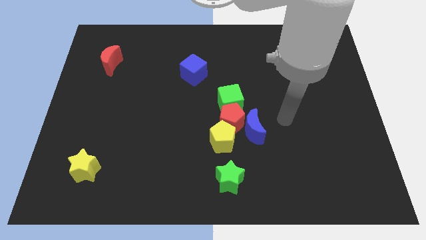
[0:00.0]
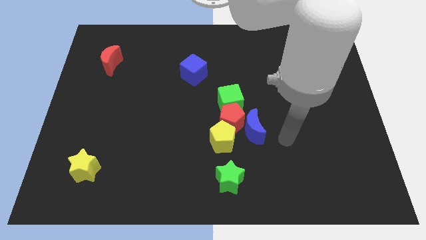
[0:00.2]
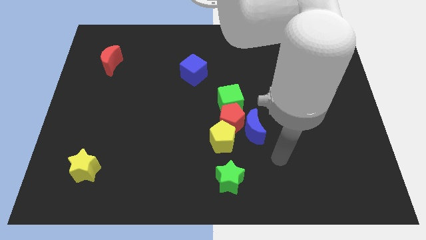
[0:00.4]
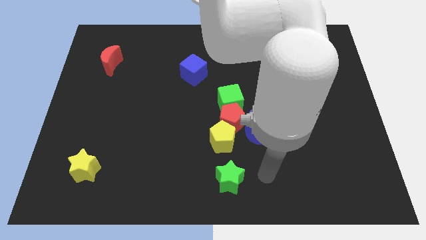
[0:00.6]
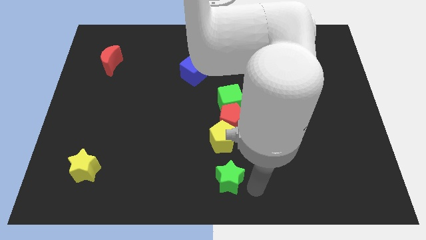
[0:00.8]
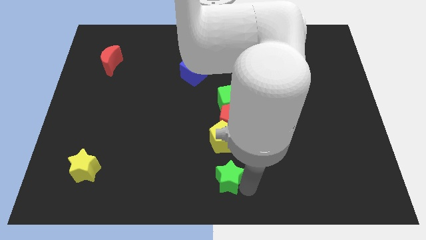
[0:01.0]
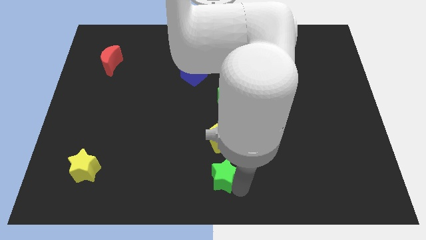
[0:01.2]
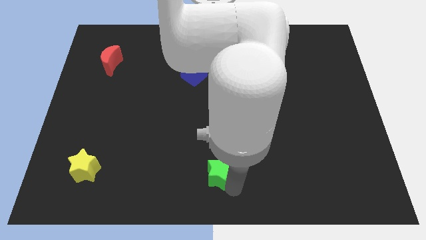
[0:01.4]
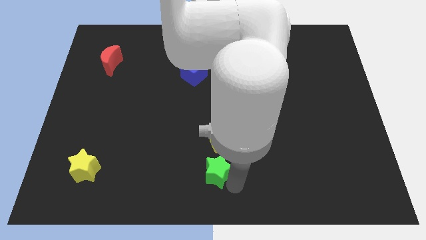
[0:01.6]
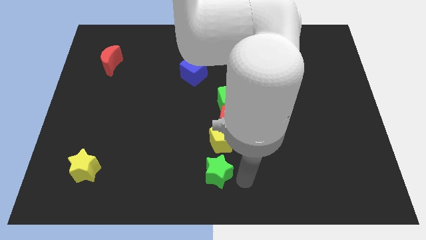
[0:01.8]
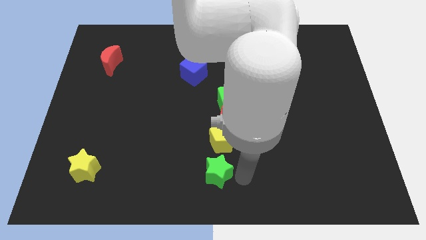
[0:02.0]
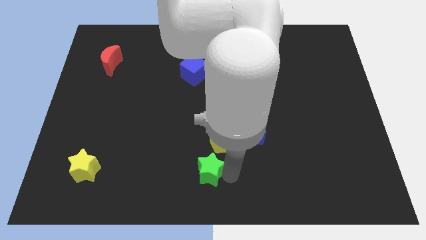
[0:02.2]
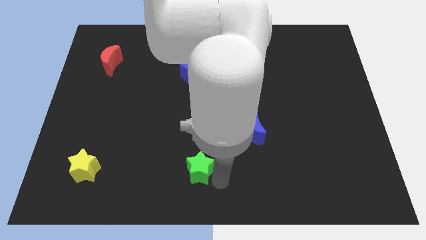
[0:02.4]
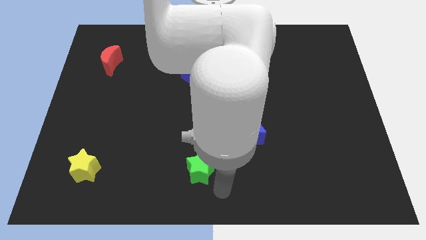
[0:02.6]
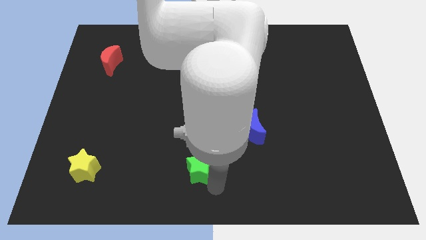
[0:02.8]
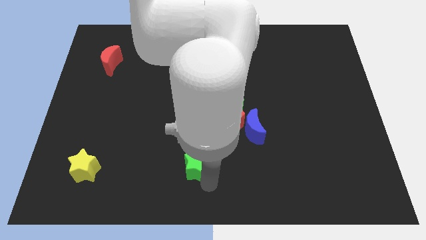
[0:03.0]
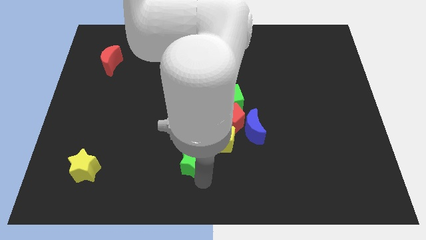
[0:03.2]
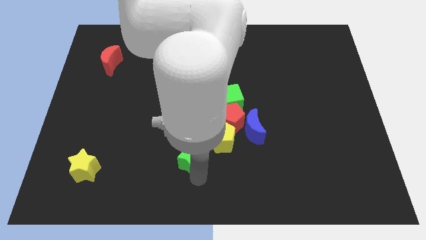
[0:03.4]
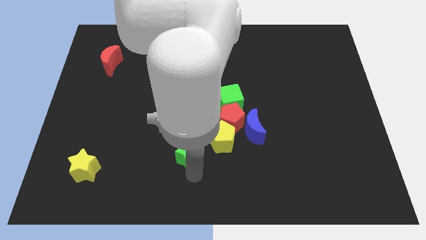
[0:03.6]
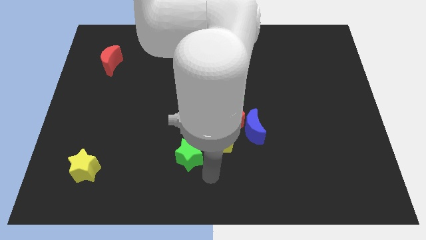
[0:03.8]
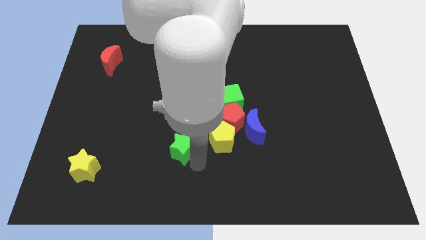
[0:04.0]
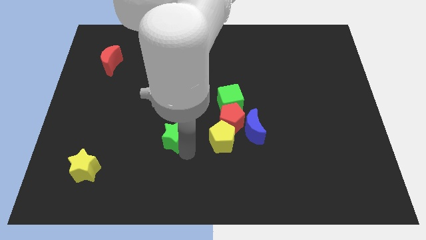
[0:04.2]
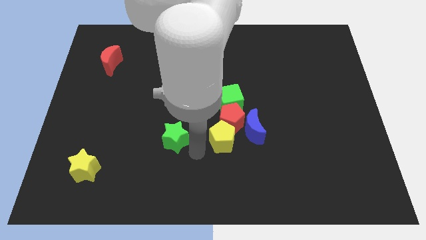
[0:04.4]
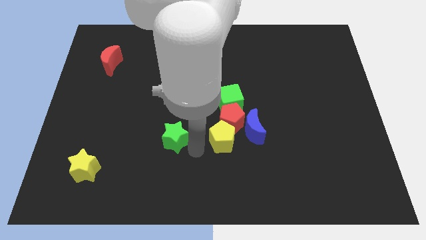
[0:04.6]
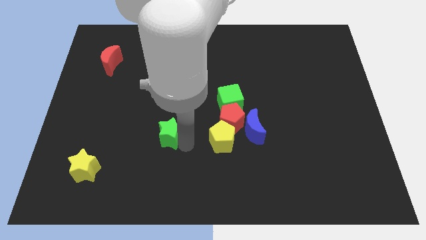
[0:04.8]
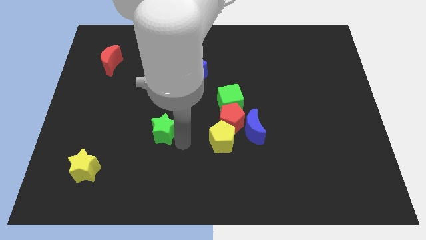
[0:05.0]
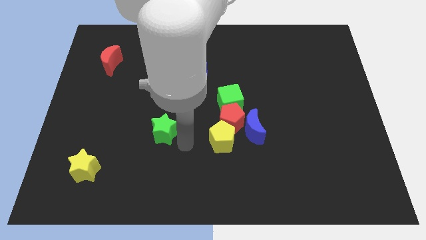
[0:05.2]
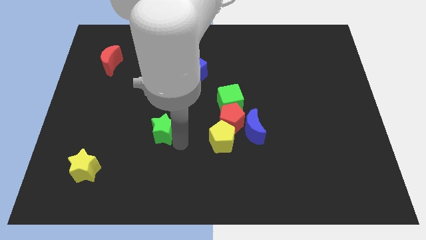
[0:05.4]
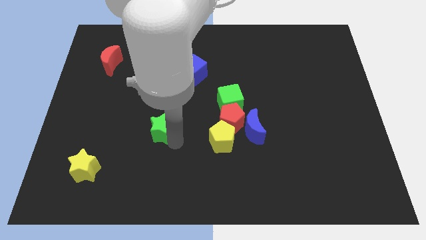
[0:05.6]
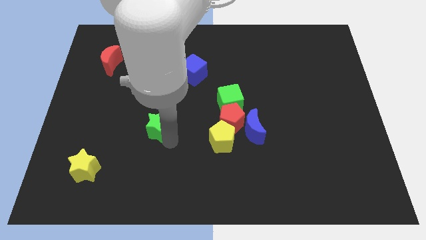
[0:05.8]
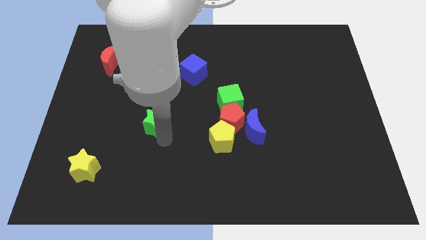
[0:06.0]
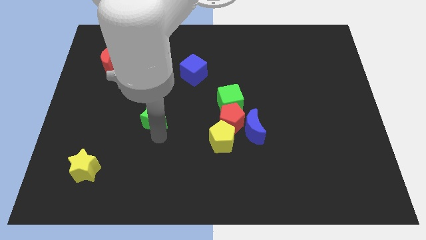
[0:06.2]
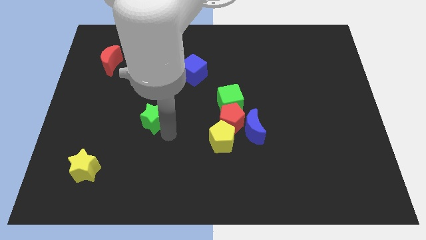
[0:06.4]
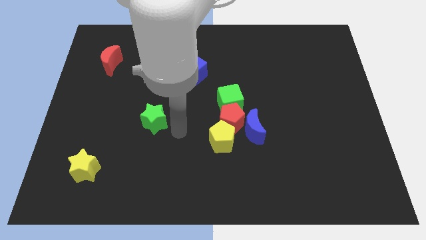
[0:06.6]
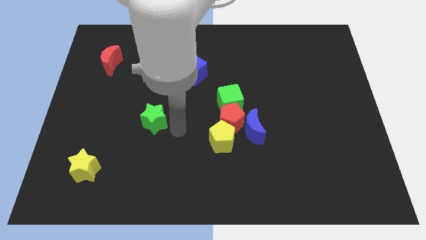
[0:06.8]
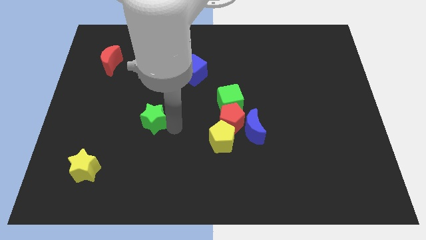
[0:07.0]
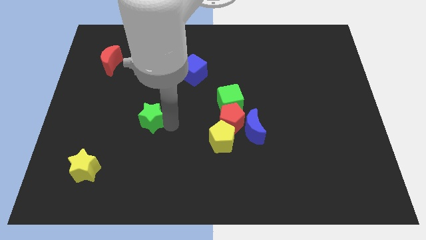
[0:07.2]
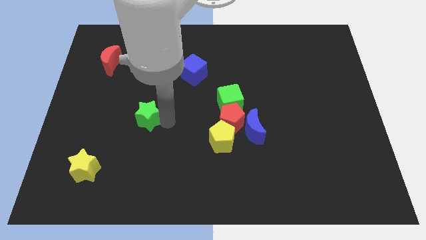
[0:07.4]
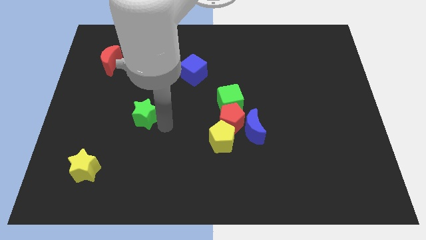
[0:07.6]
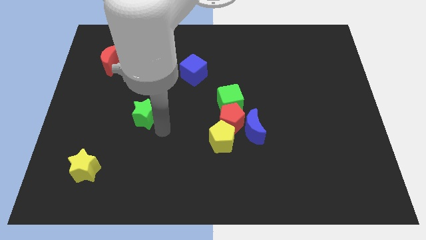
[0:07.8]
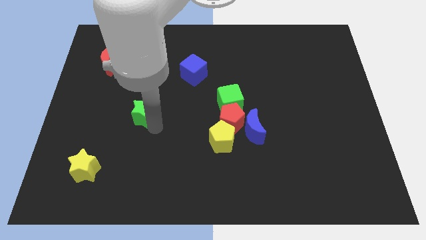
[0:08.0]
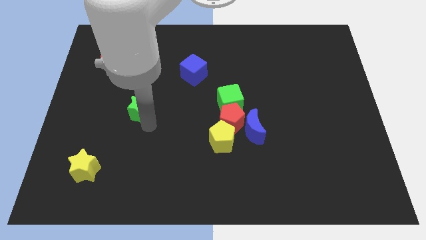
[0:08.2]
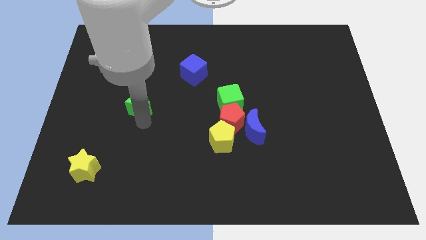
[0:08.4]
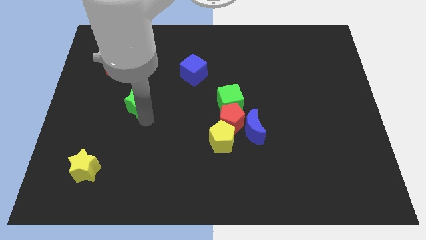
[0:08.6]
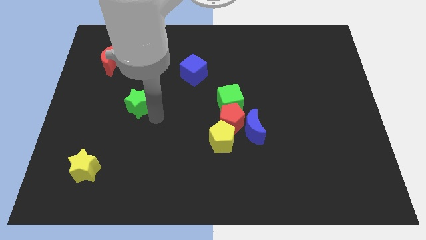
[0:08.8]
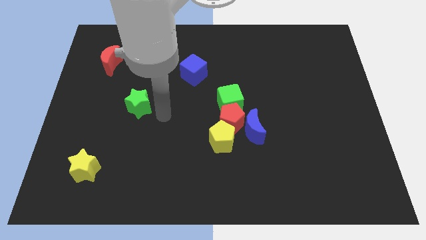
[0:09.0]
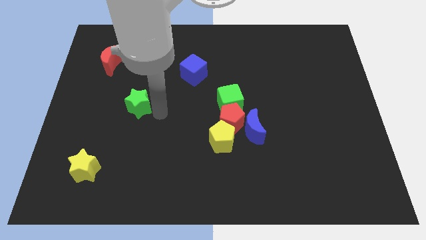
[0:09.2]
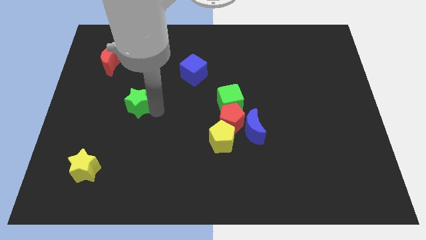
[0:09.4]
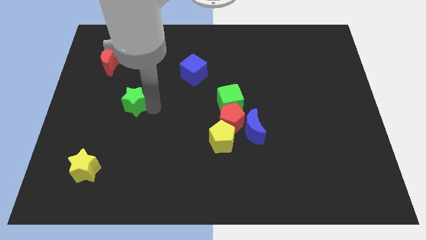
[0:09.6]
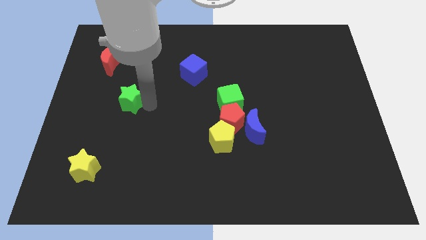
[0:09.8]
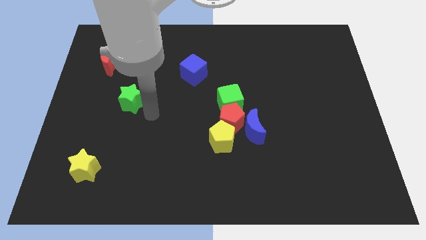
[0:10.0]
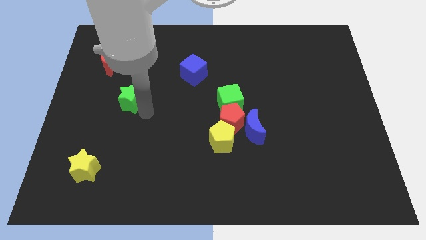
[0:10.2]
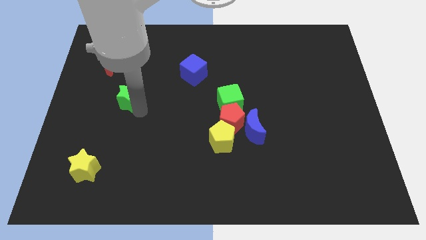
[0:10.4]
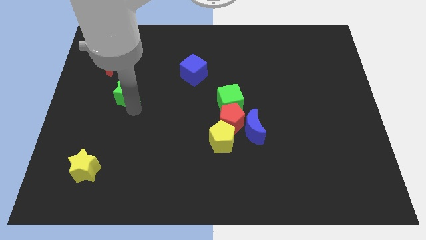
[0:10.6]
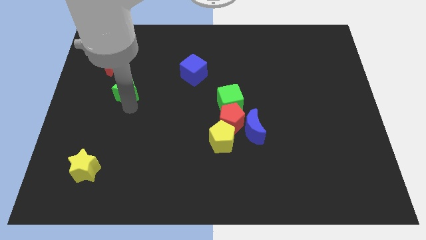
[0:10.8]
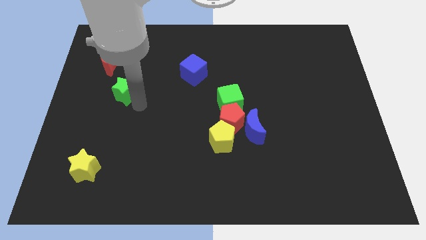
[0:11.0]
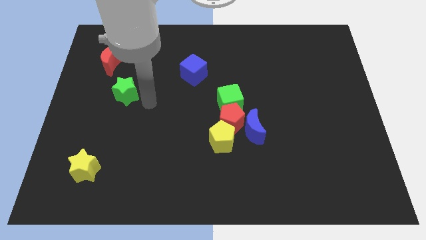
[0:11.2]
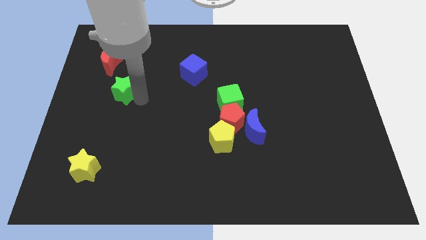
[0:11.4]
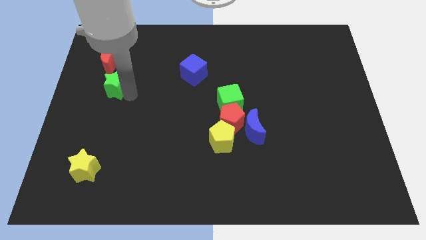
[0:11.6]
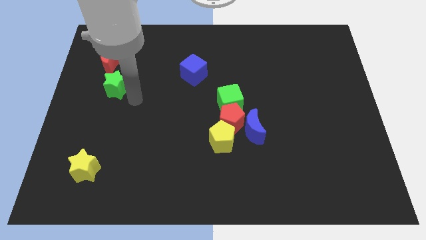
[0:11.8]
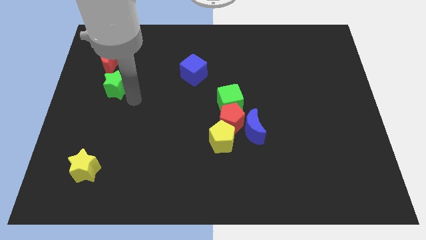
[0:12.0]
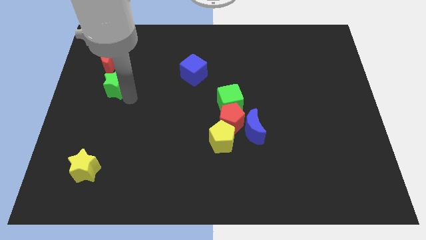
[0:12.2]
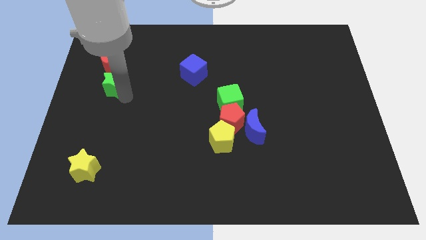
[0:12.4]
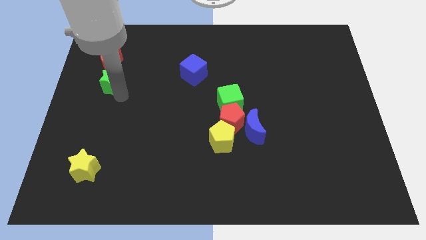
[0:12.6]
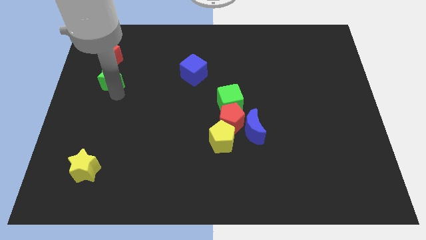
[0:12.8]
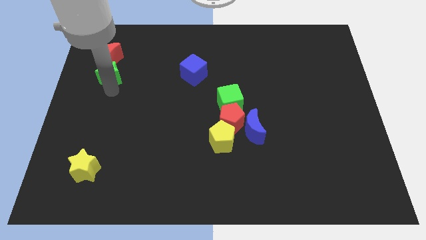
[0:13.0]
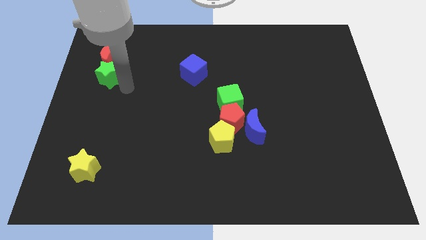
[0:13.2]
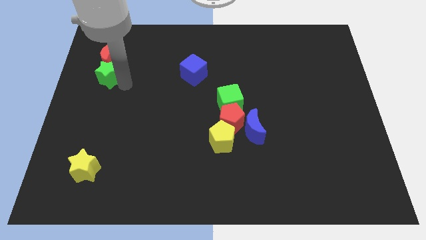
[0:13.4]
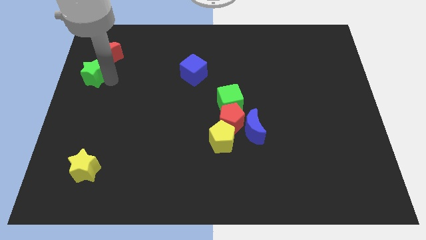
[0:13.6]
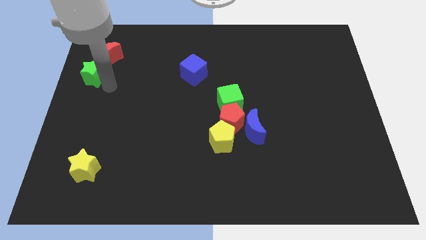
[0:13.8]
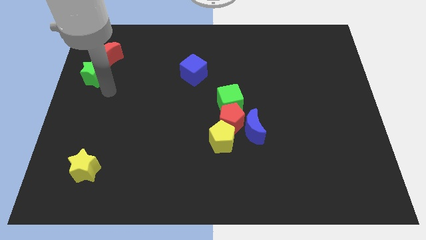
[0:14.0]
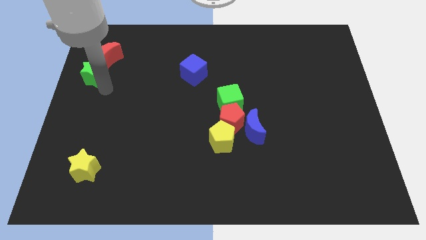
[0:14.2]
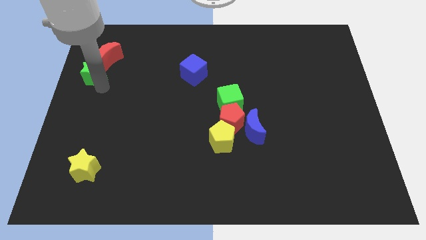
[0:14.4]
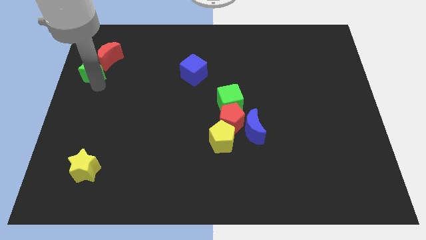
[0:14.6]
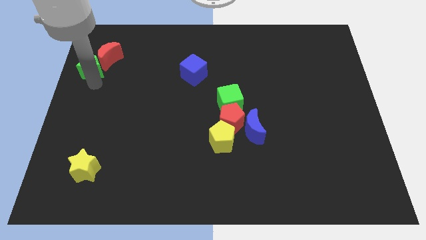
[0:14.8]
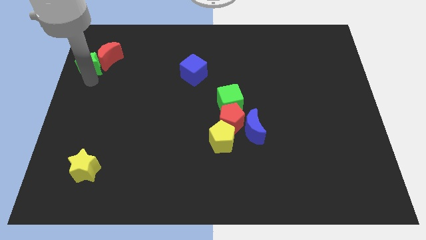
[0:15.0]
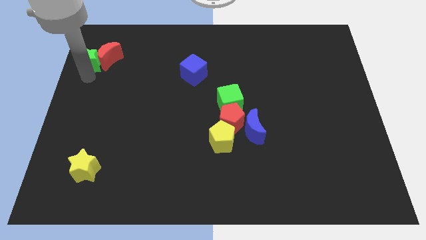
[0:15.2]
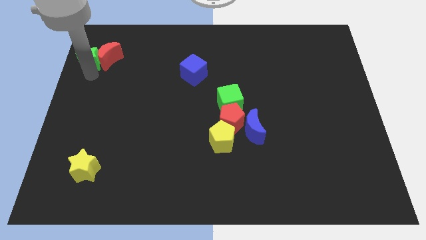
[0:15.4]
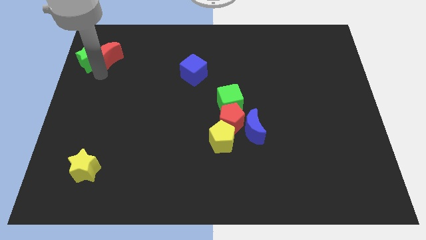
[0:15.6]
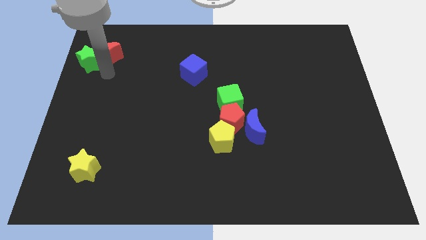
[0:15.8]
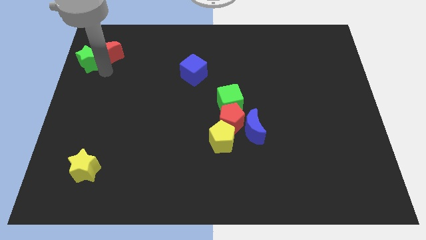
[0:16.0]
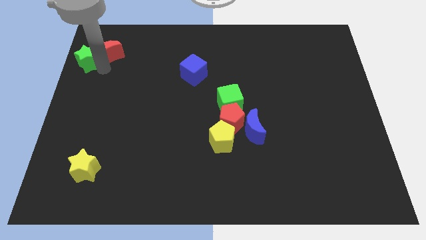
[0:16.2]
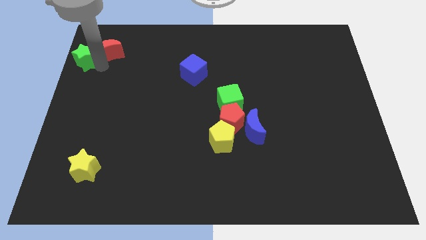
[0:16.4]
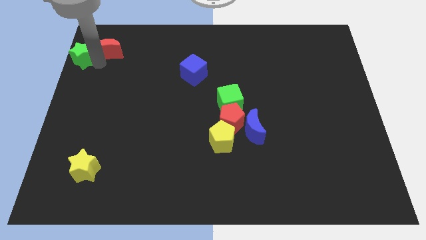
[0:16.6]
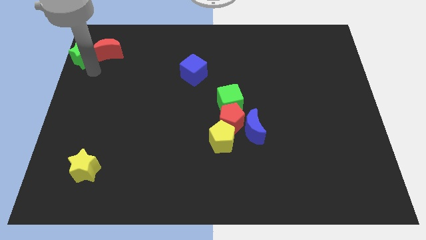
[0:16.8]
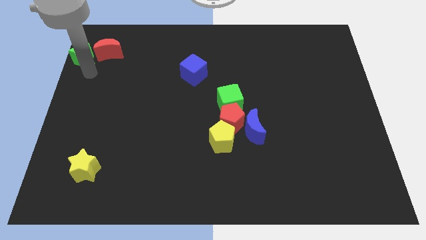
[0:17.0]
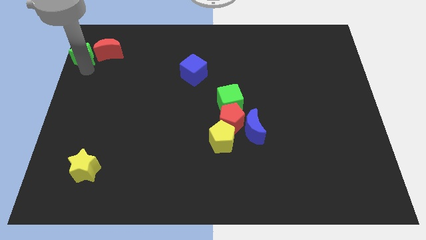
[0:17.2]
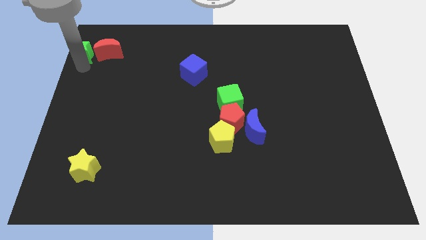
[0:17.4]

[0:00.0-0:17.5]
slide the green star to the top left of the board
